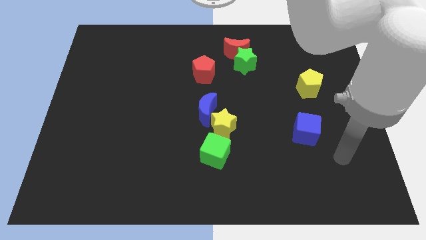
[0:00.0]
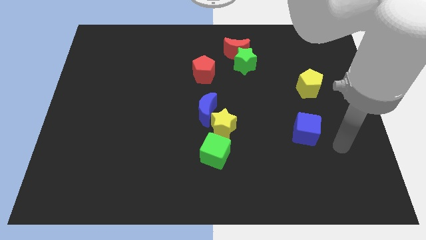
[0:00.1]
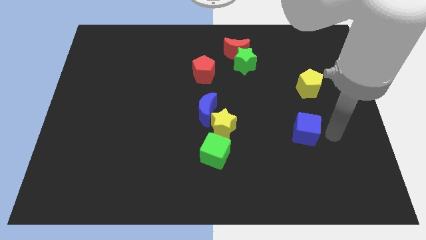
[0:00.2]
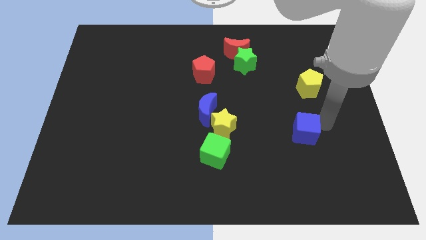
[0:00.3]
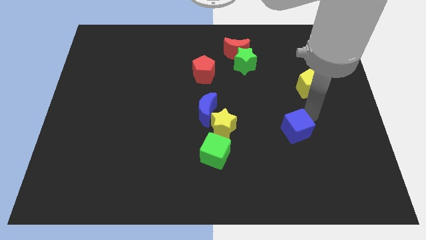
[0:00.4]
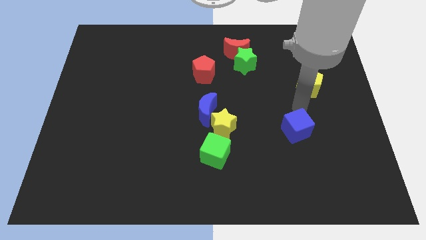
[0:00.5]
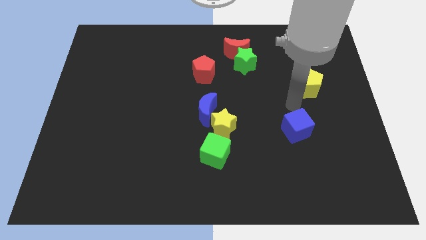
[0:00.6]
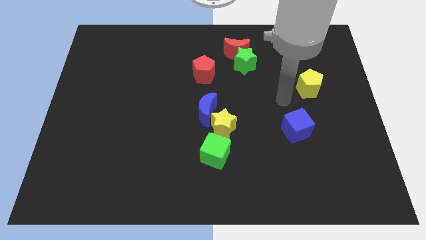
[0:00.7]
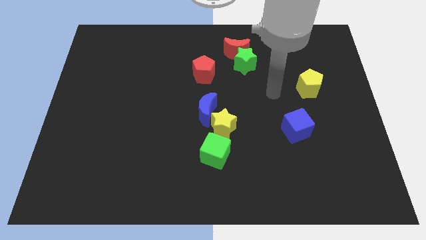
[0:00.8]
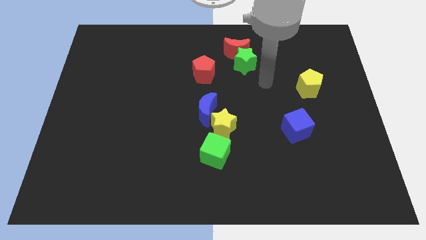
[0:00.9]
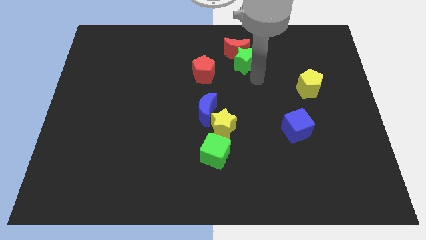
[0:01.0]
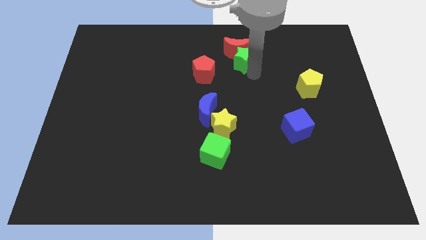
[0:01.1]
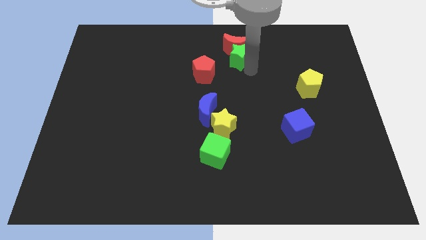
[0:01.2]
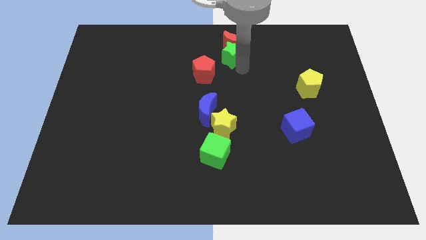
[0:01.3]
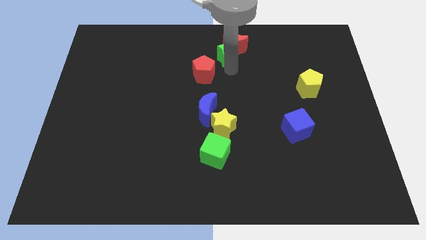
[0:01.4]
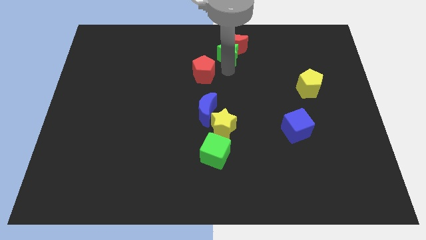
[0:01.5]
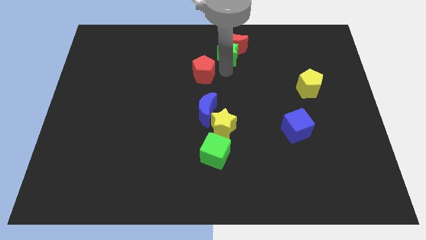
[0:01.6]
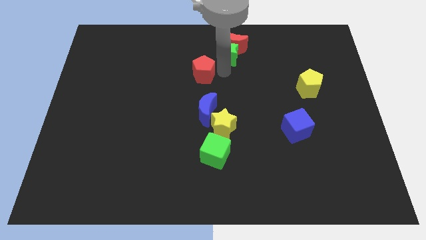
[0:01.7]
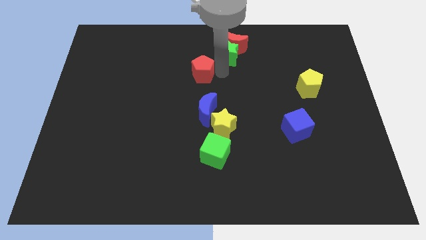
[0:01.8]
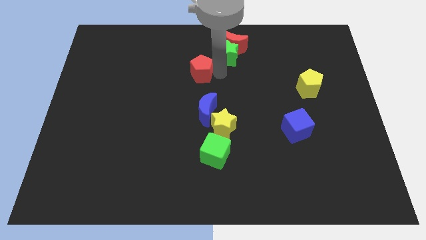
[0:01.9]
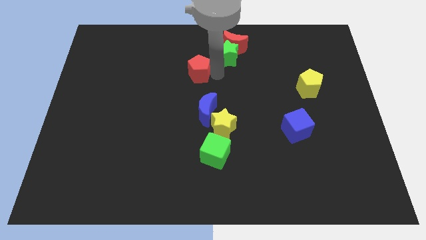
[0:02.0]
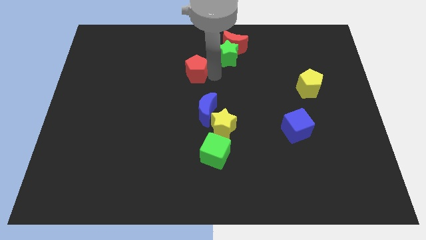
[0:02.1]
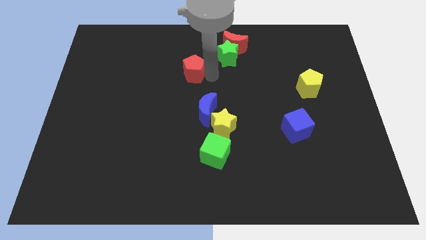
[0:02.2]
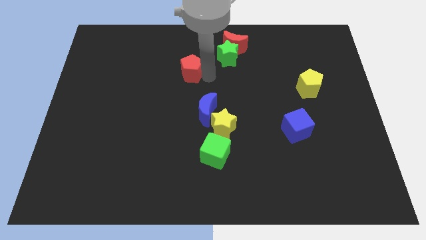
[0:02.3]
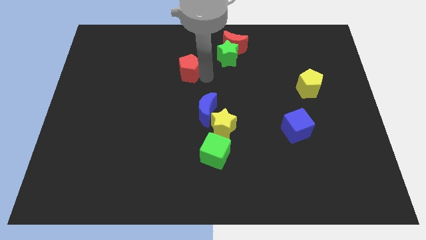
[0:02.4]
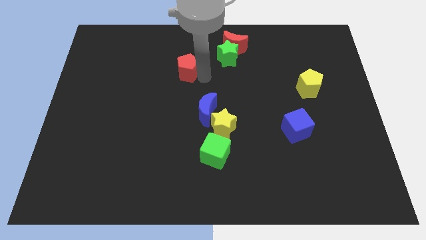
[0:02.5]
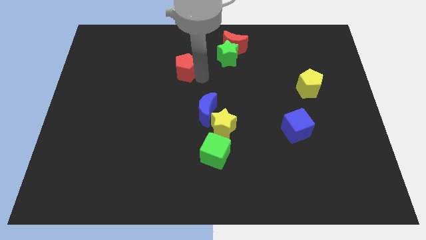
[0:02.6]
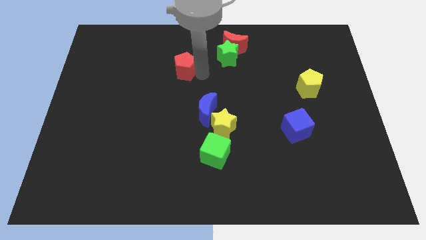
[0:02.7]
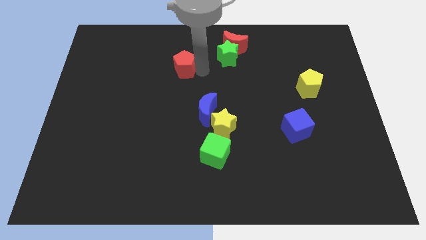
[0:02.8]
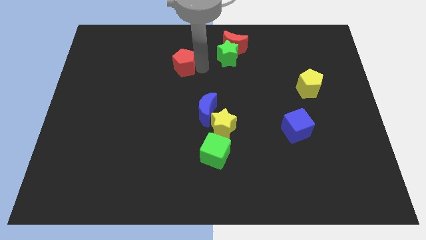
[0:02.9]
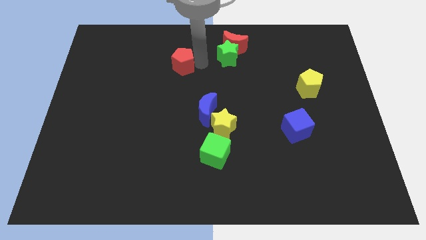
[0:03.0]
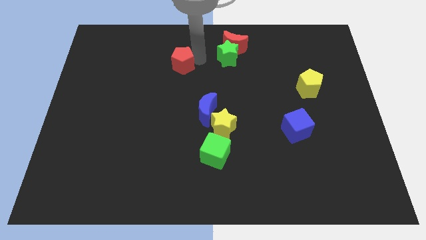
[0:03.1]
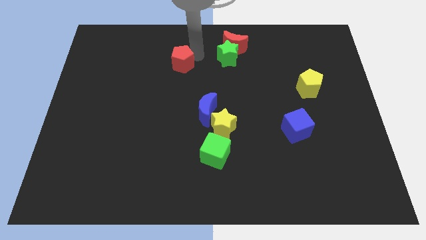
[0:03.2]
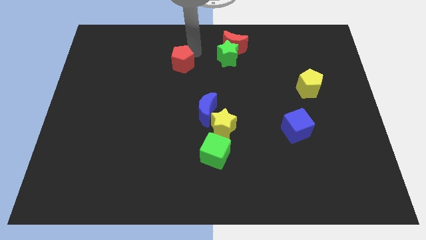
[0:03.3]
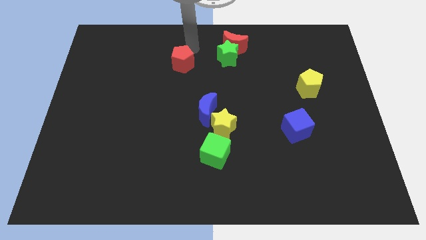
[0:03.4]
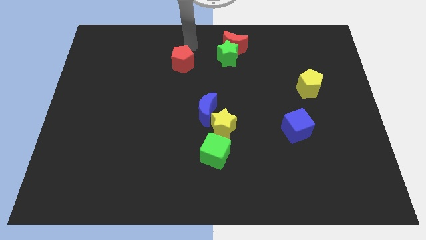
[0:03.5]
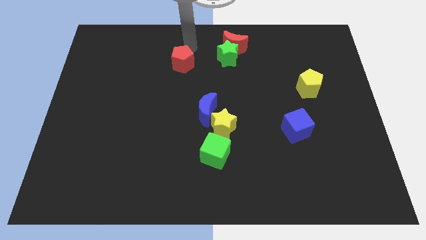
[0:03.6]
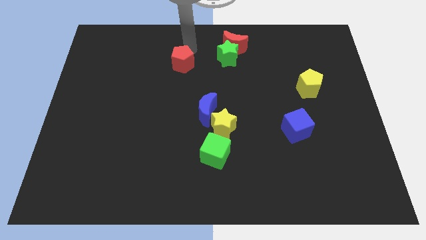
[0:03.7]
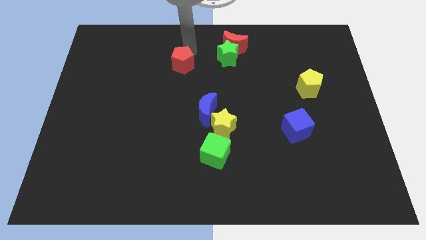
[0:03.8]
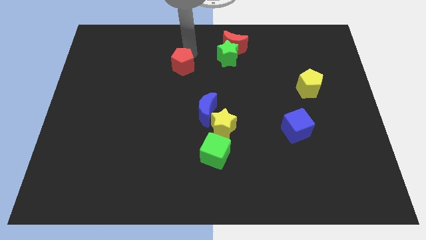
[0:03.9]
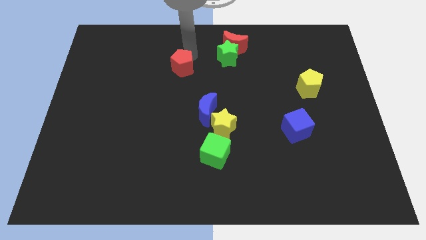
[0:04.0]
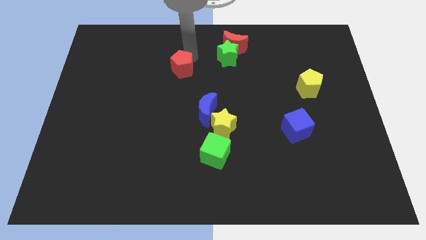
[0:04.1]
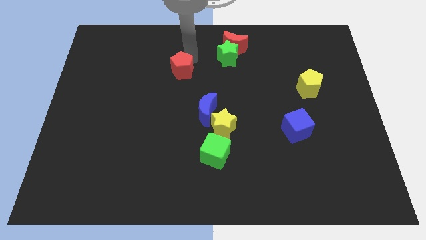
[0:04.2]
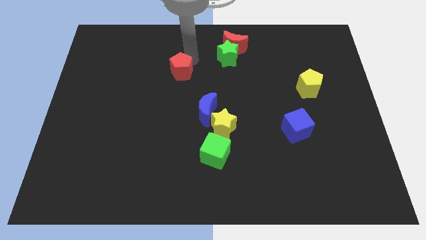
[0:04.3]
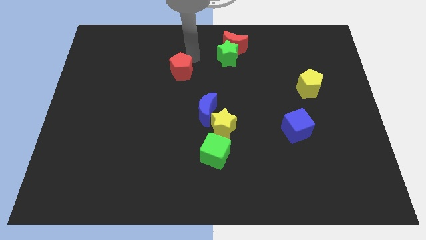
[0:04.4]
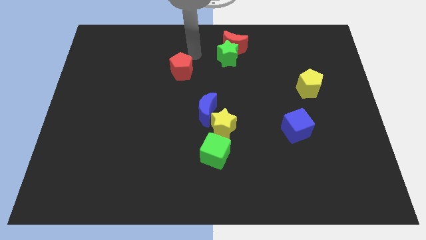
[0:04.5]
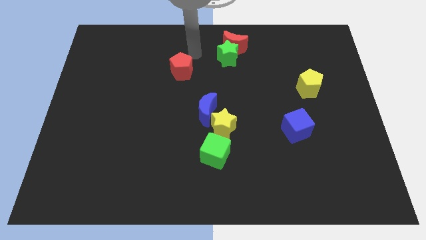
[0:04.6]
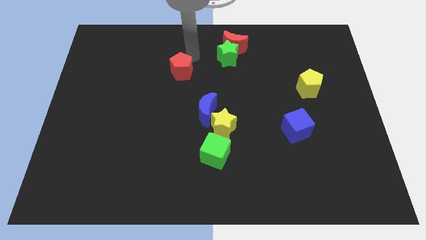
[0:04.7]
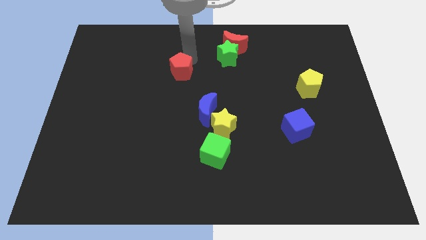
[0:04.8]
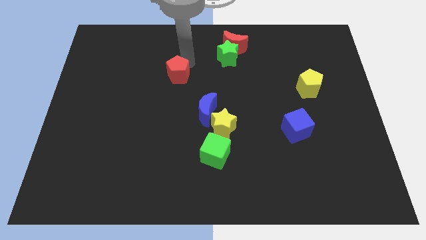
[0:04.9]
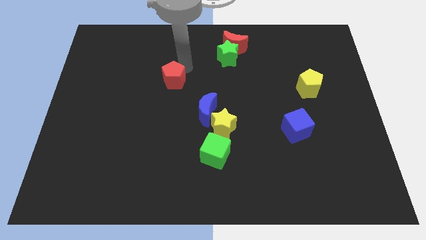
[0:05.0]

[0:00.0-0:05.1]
push the red pentagon a little bit to the left

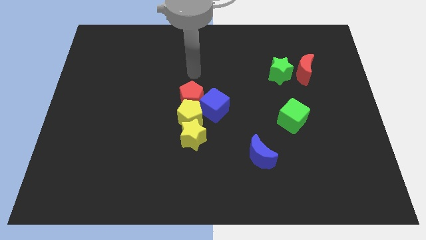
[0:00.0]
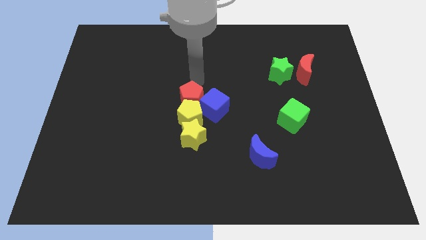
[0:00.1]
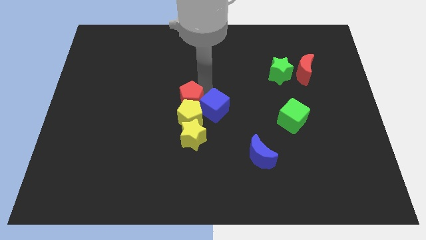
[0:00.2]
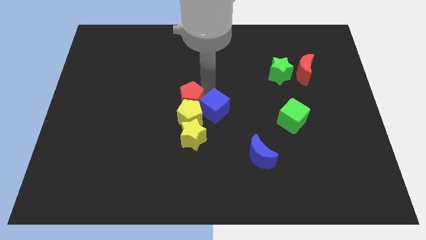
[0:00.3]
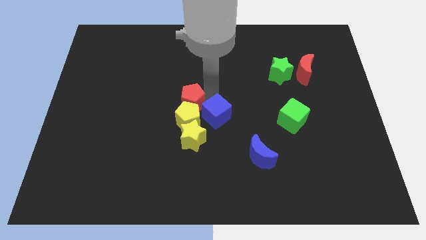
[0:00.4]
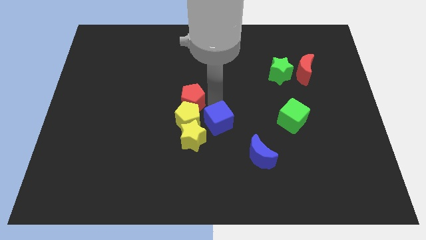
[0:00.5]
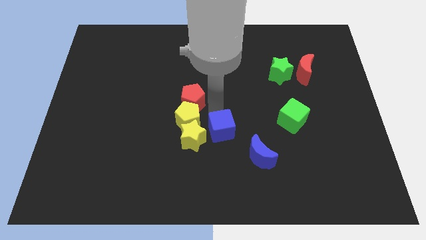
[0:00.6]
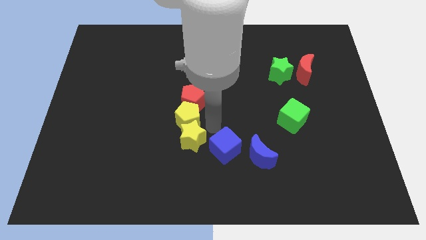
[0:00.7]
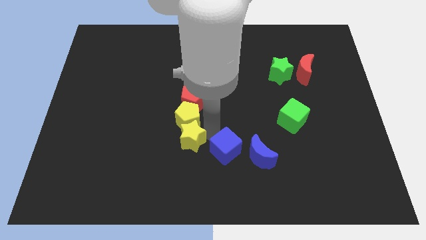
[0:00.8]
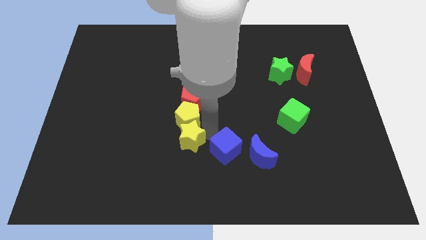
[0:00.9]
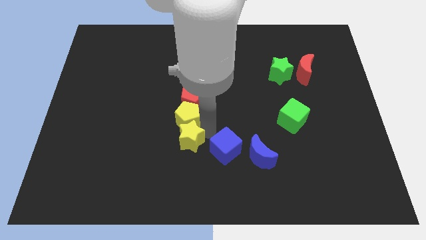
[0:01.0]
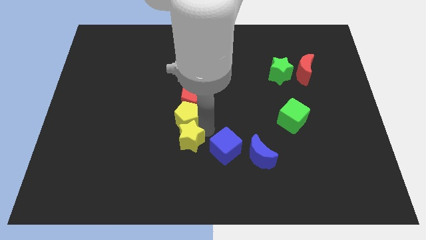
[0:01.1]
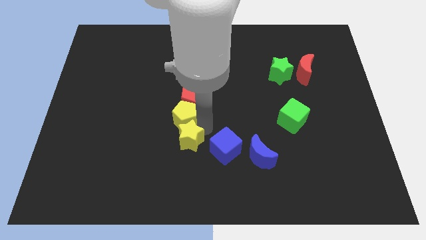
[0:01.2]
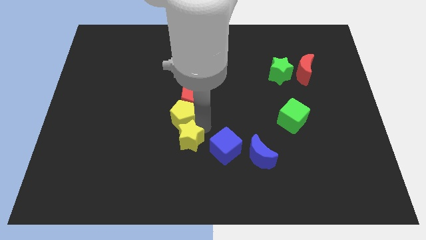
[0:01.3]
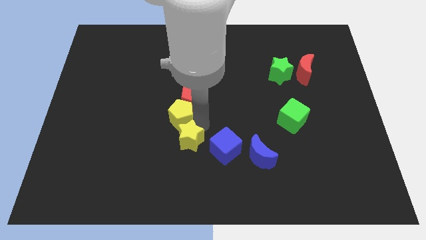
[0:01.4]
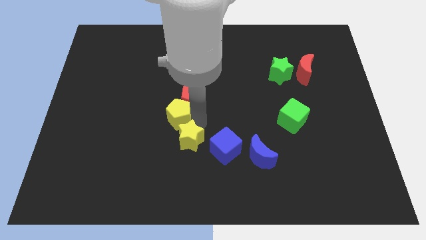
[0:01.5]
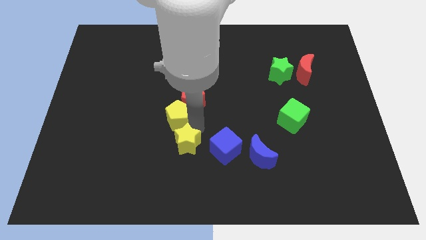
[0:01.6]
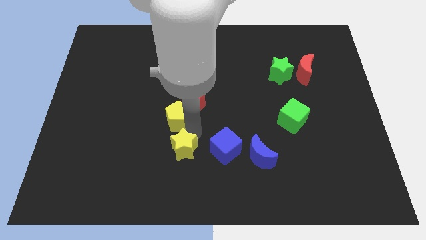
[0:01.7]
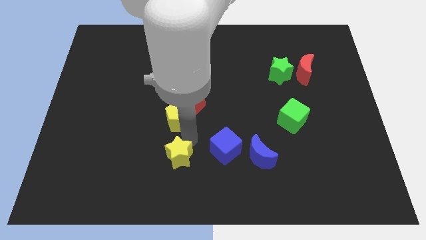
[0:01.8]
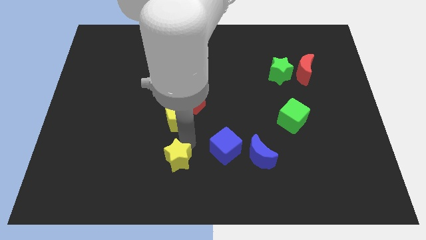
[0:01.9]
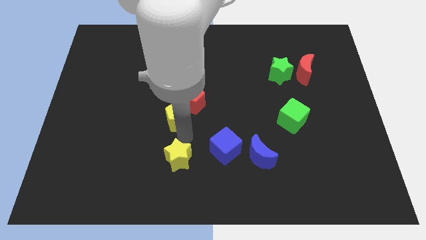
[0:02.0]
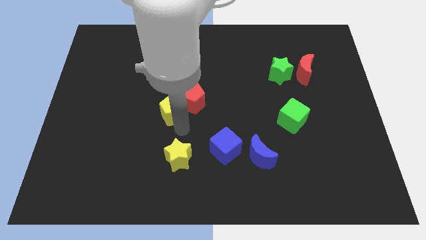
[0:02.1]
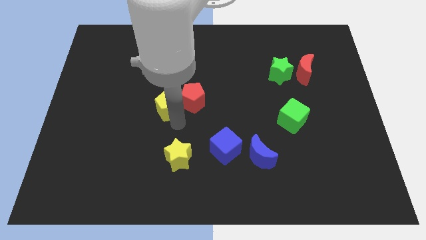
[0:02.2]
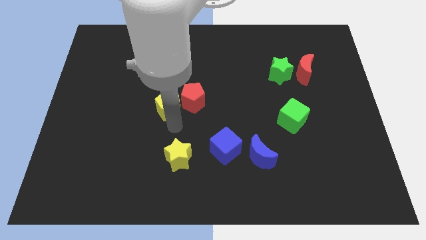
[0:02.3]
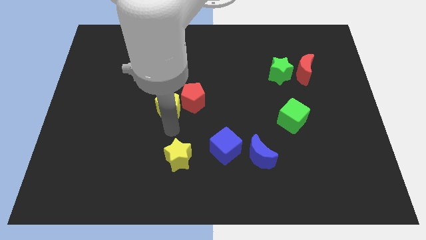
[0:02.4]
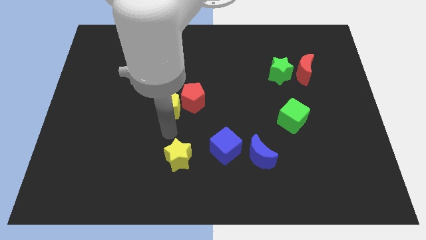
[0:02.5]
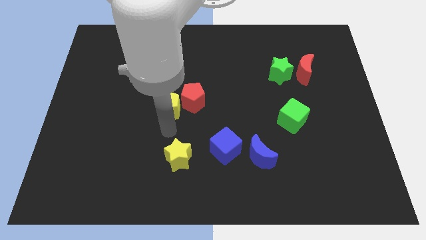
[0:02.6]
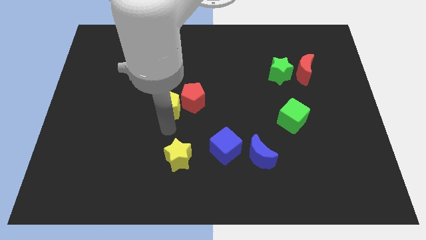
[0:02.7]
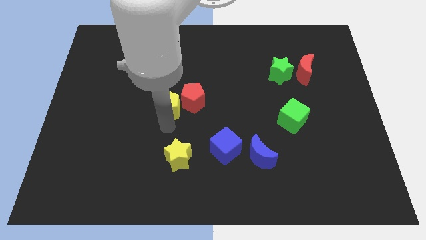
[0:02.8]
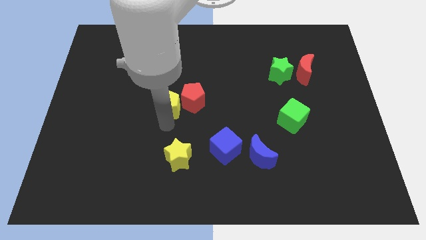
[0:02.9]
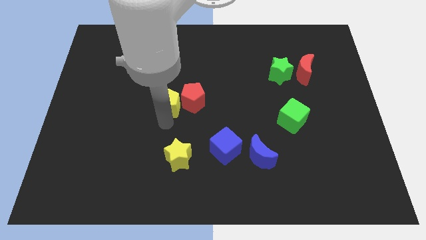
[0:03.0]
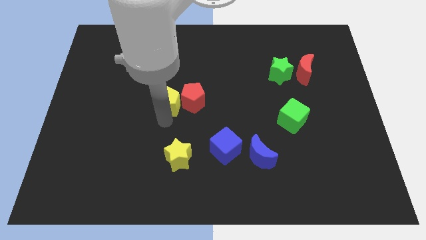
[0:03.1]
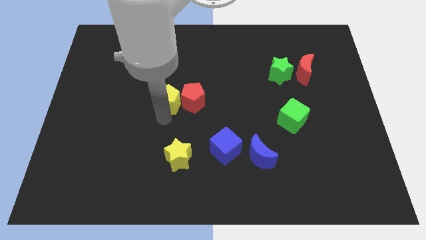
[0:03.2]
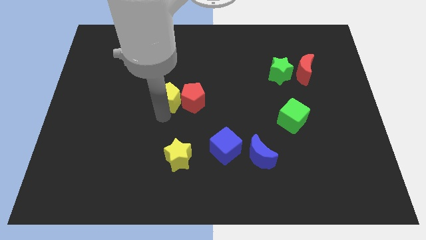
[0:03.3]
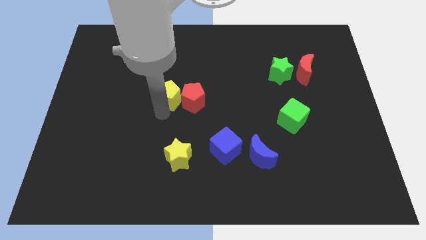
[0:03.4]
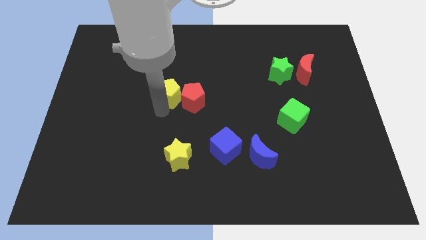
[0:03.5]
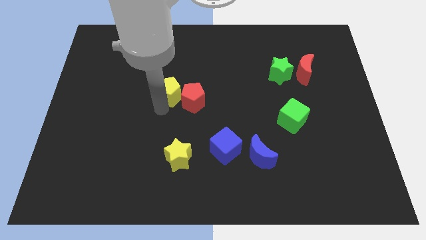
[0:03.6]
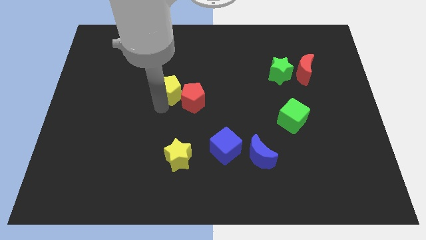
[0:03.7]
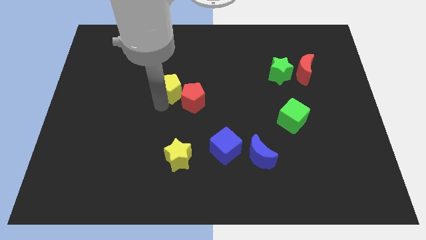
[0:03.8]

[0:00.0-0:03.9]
slightly move the yellow pentagon up
